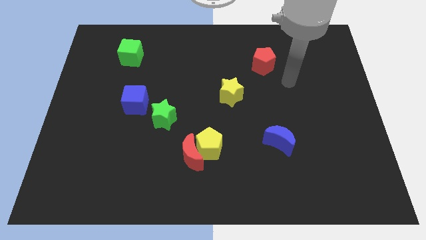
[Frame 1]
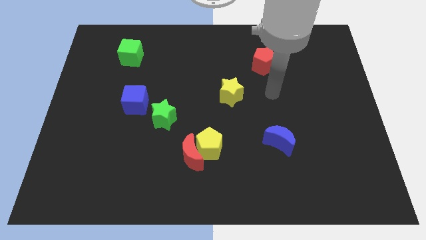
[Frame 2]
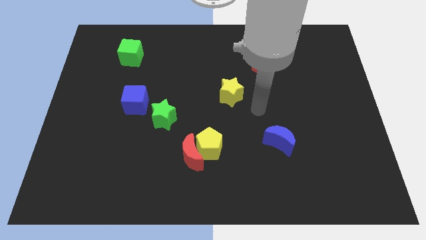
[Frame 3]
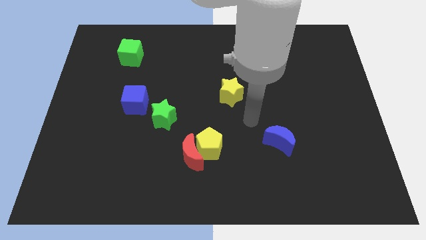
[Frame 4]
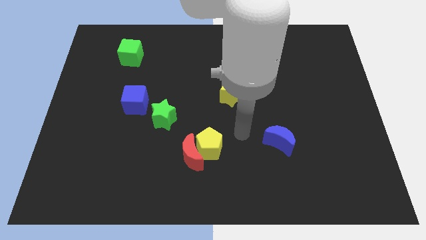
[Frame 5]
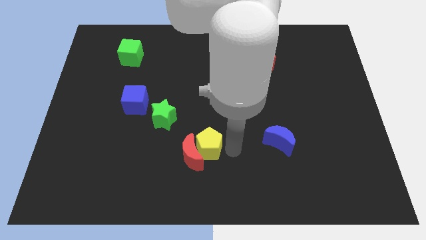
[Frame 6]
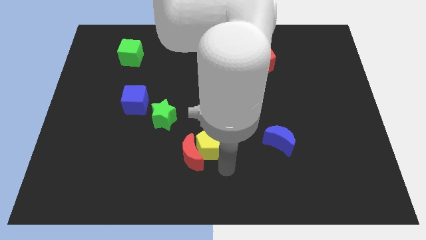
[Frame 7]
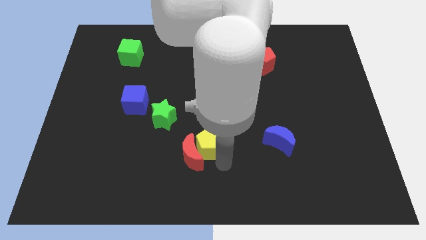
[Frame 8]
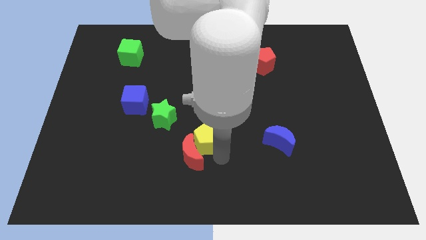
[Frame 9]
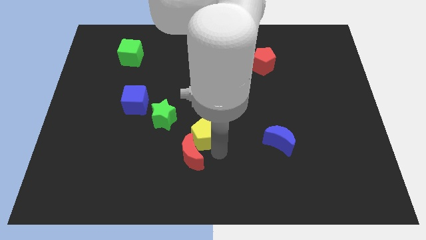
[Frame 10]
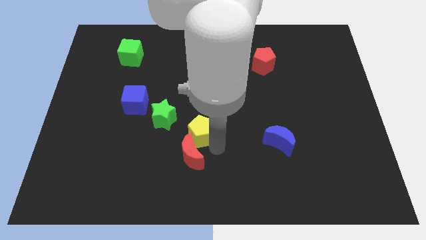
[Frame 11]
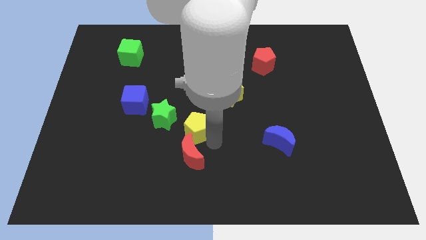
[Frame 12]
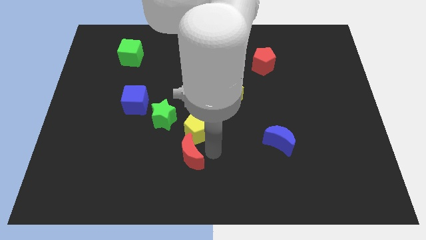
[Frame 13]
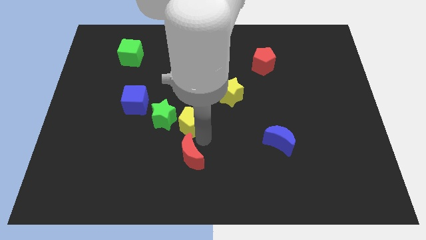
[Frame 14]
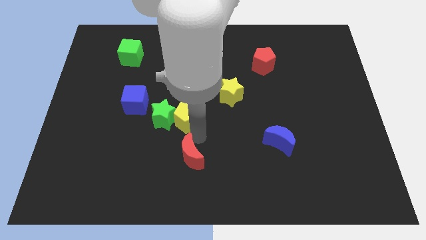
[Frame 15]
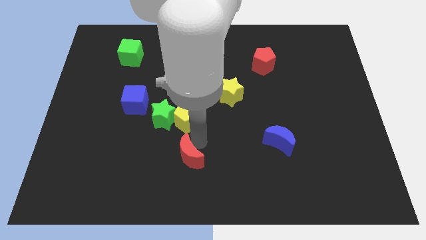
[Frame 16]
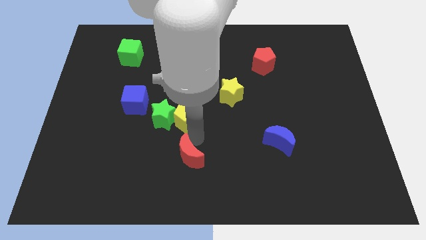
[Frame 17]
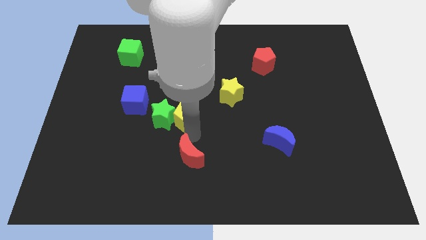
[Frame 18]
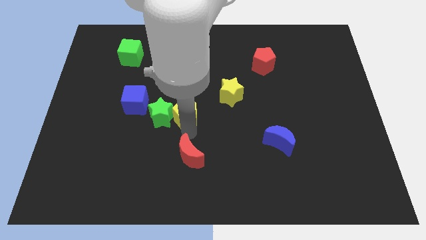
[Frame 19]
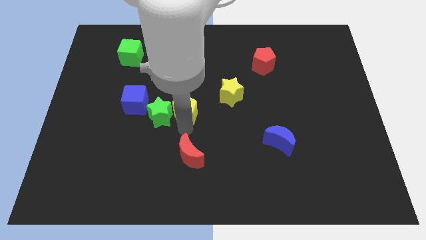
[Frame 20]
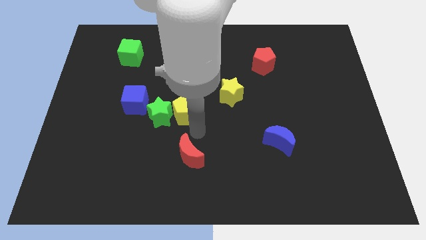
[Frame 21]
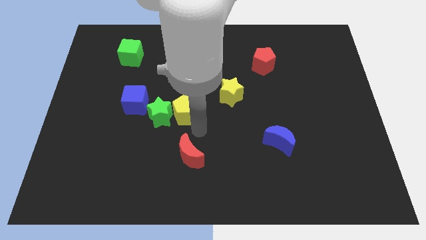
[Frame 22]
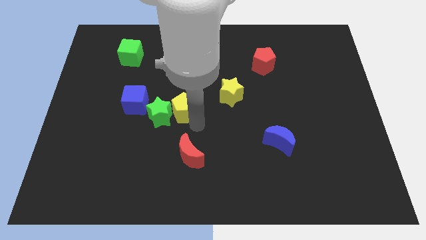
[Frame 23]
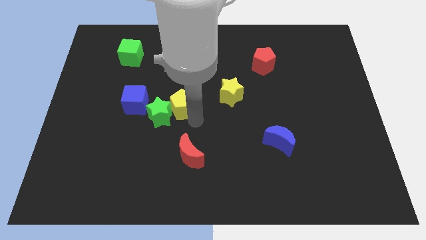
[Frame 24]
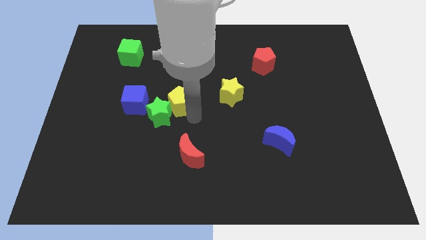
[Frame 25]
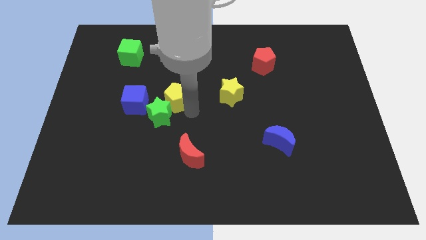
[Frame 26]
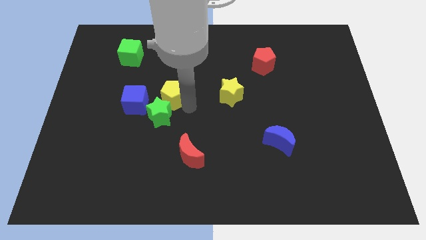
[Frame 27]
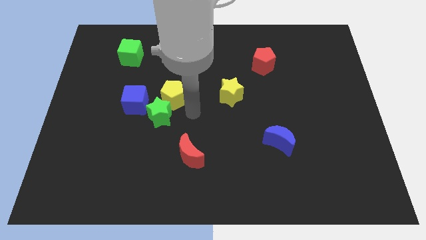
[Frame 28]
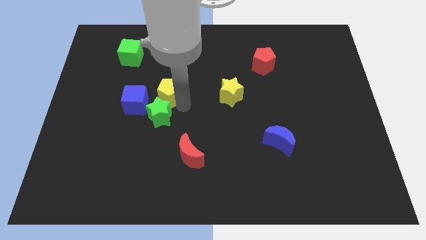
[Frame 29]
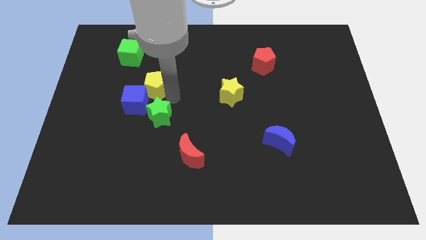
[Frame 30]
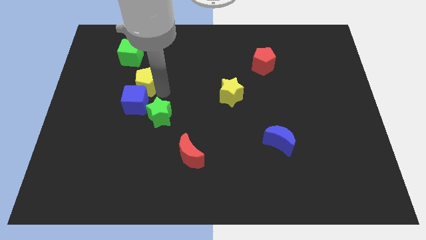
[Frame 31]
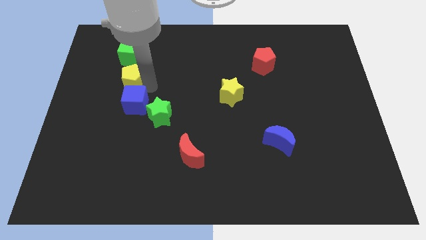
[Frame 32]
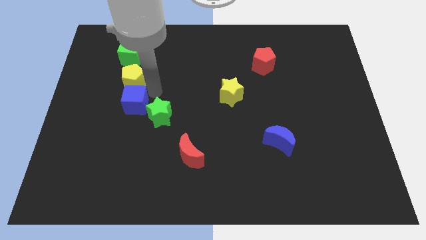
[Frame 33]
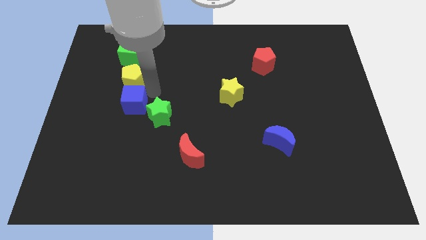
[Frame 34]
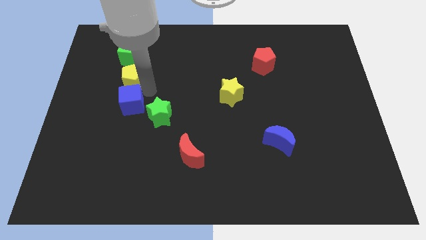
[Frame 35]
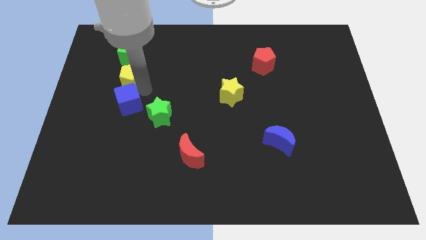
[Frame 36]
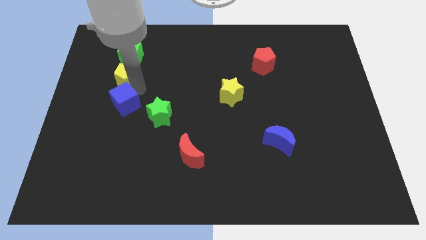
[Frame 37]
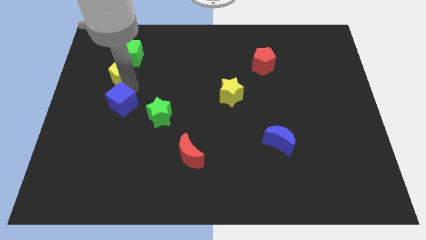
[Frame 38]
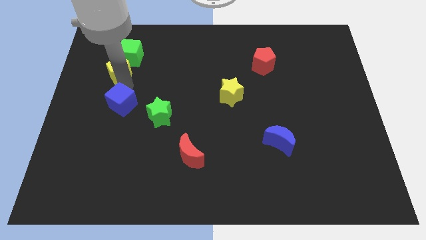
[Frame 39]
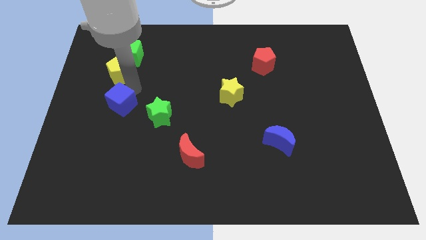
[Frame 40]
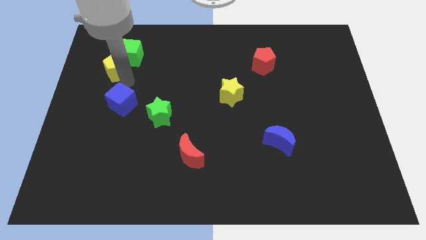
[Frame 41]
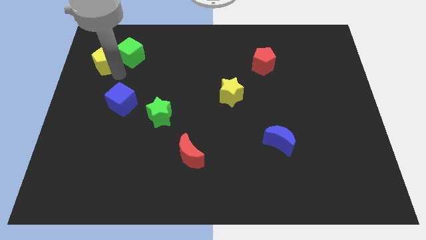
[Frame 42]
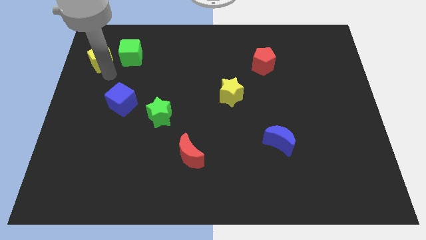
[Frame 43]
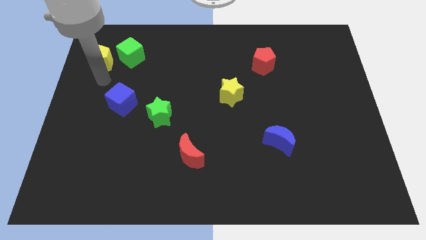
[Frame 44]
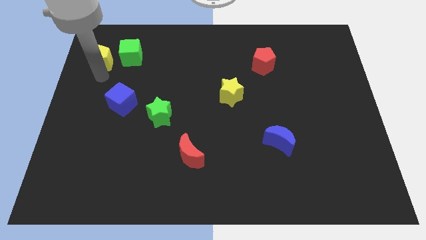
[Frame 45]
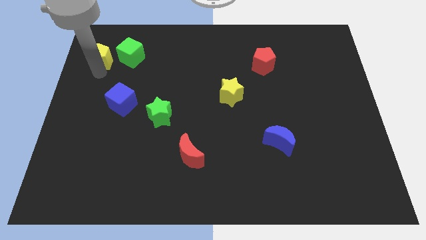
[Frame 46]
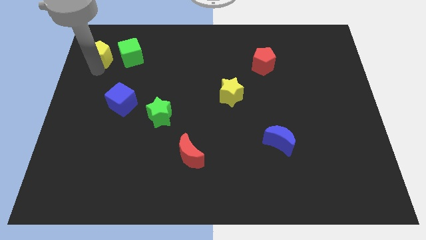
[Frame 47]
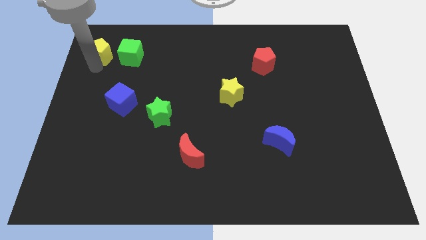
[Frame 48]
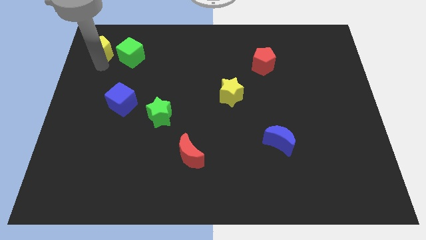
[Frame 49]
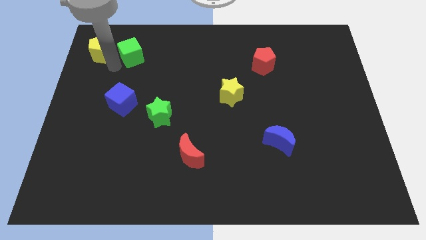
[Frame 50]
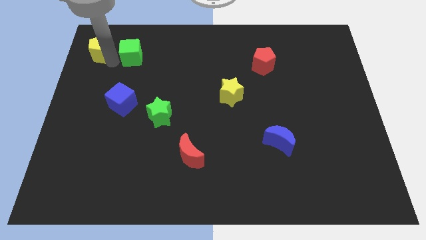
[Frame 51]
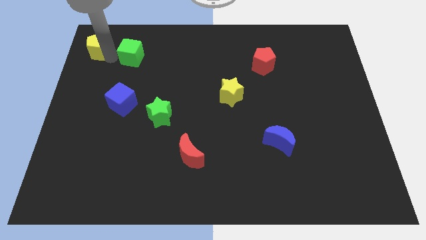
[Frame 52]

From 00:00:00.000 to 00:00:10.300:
slide the yellow pentagon to the top left corner

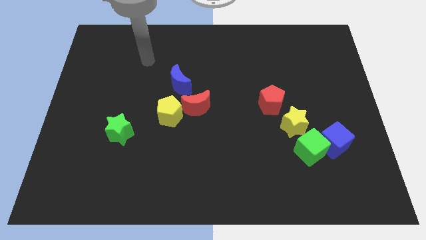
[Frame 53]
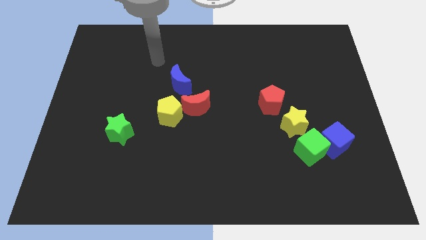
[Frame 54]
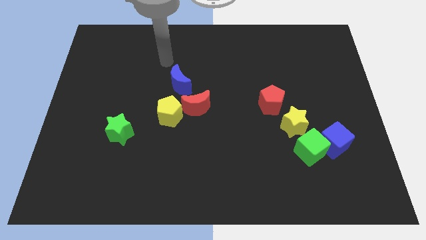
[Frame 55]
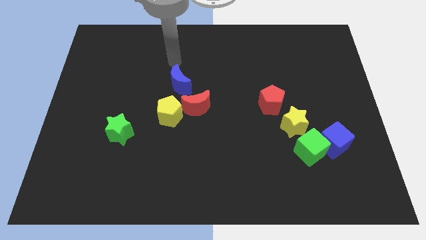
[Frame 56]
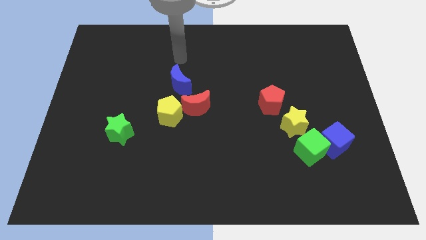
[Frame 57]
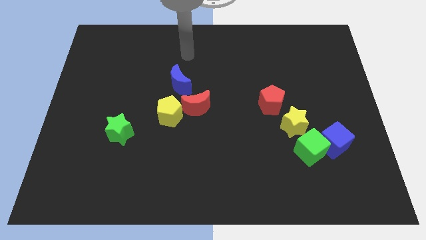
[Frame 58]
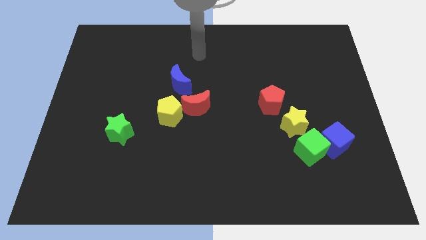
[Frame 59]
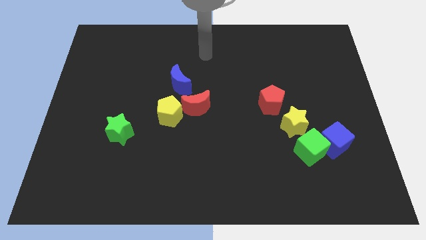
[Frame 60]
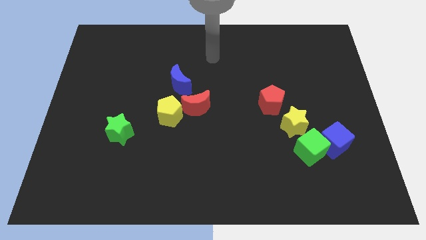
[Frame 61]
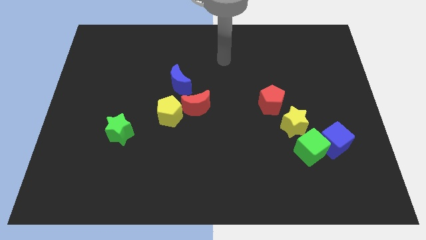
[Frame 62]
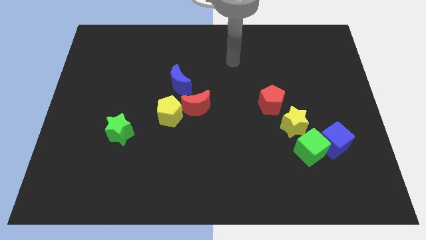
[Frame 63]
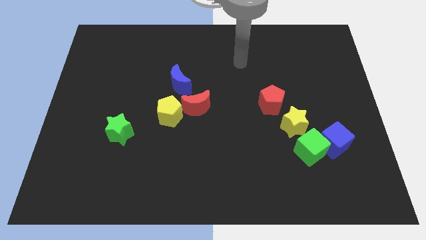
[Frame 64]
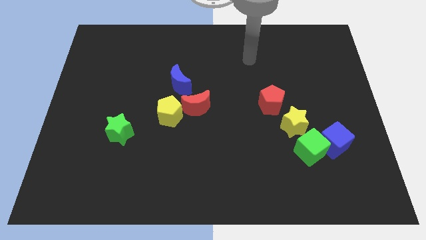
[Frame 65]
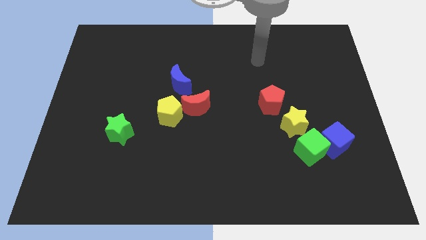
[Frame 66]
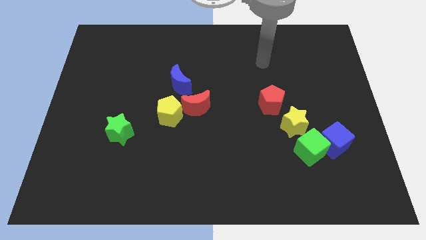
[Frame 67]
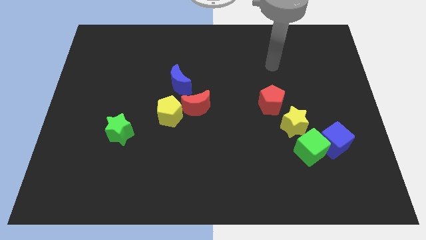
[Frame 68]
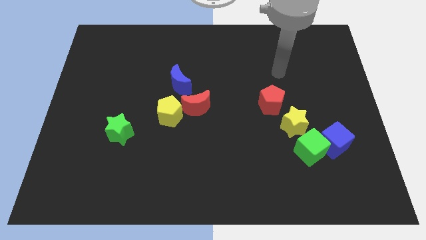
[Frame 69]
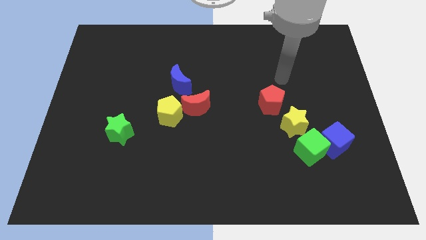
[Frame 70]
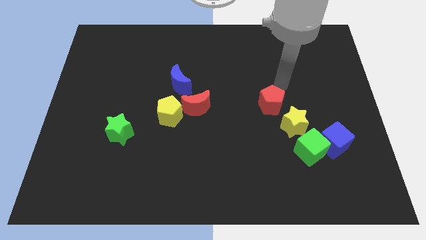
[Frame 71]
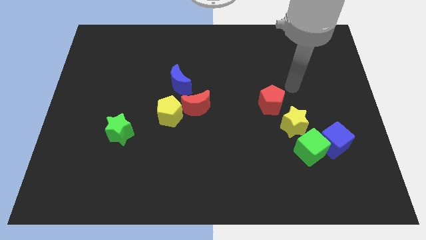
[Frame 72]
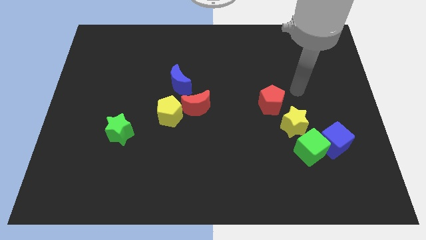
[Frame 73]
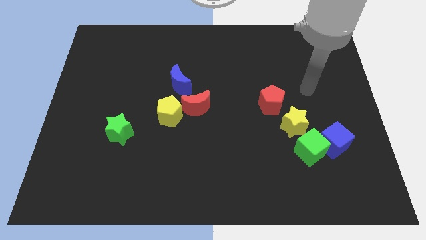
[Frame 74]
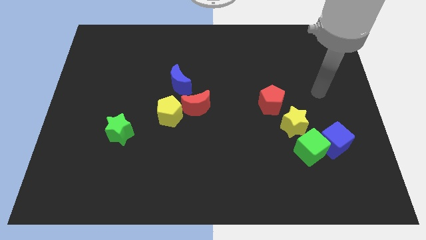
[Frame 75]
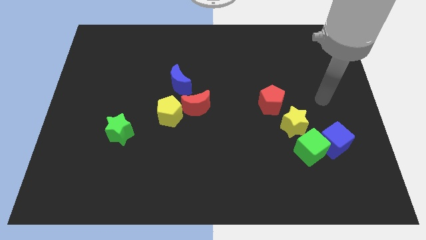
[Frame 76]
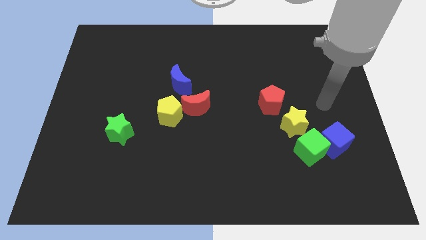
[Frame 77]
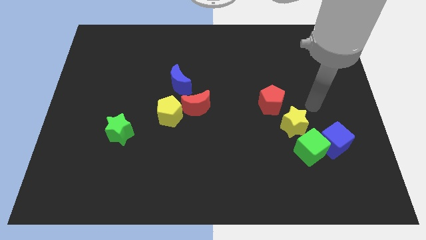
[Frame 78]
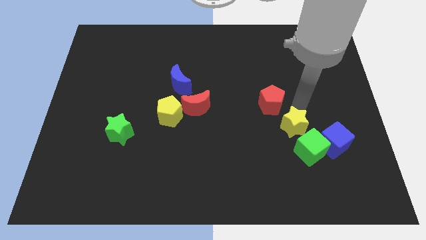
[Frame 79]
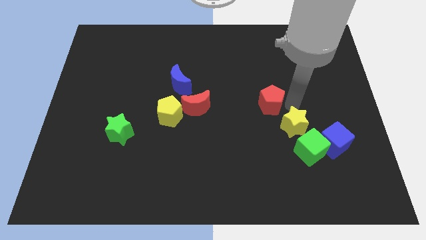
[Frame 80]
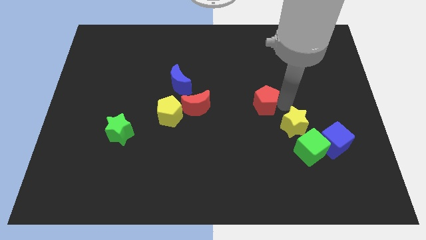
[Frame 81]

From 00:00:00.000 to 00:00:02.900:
slide the red pentagon to the center of the board
